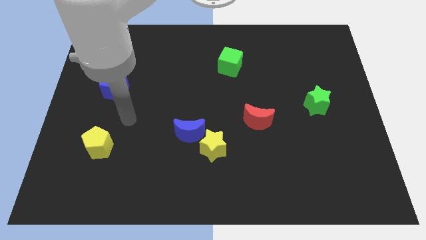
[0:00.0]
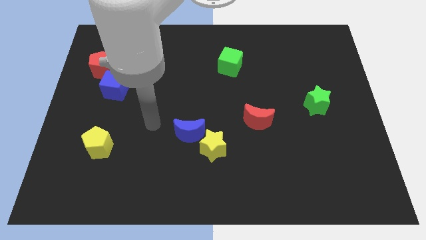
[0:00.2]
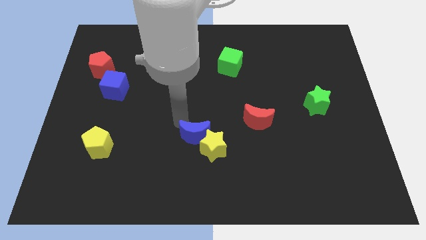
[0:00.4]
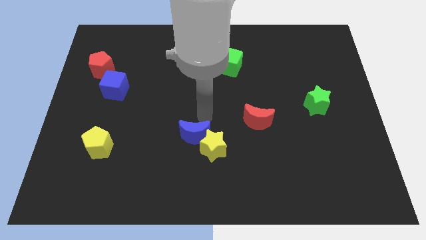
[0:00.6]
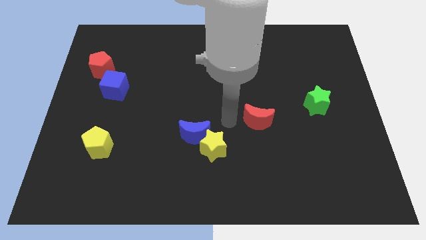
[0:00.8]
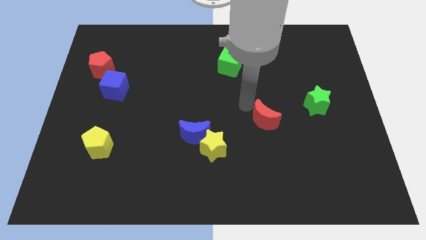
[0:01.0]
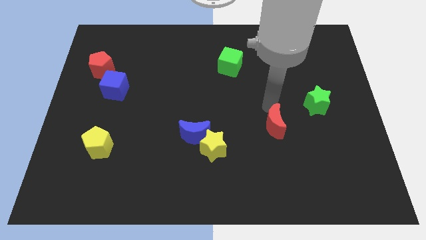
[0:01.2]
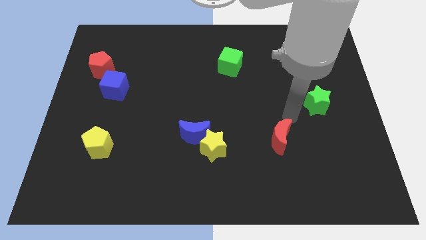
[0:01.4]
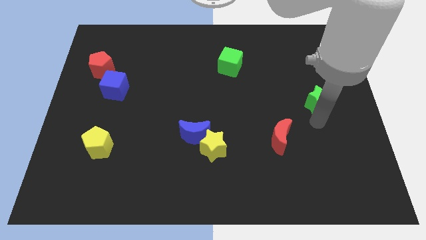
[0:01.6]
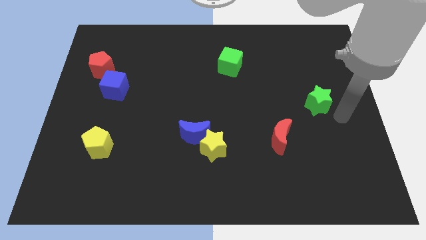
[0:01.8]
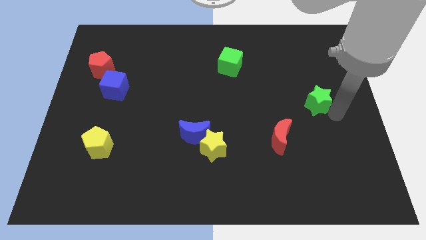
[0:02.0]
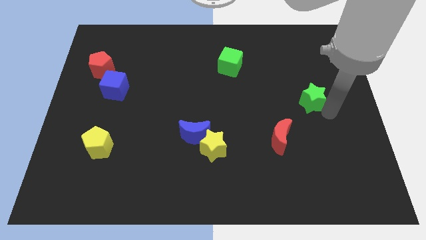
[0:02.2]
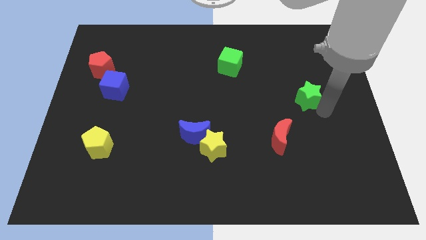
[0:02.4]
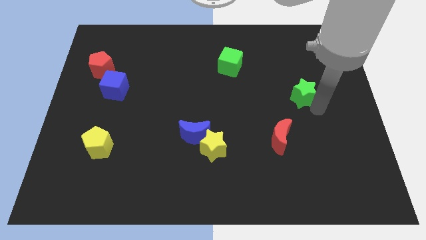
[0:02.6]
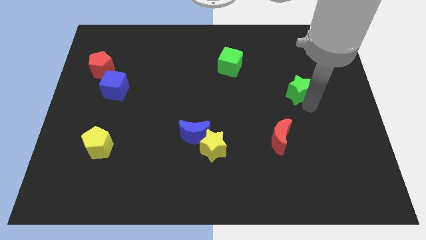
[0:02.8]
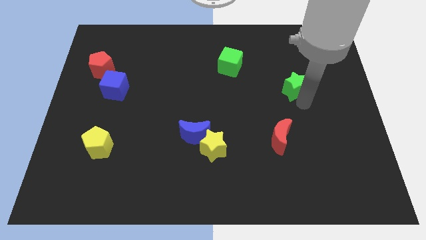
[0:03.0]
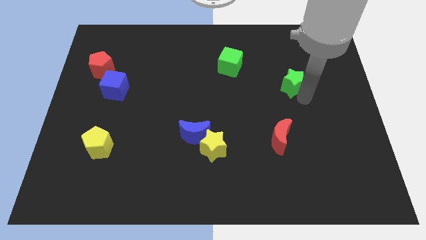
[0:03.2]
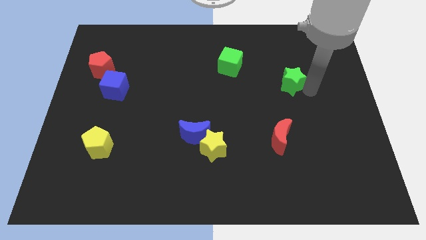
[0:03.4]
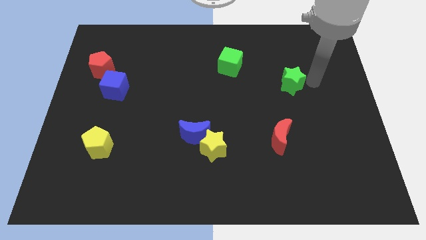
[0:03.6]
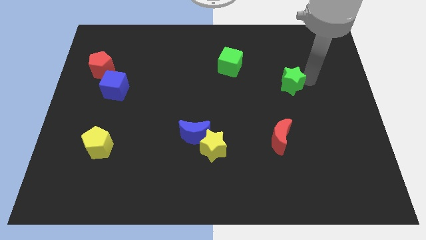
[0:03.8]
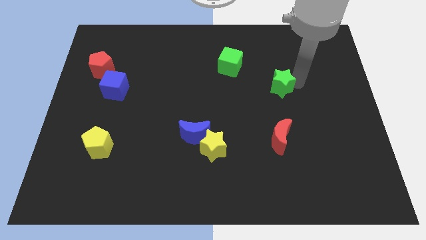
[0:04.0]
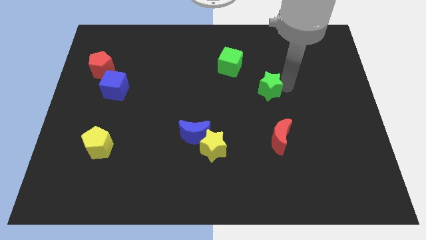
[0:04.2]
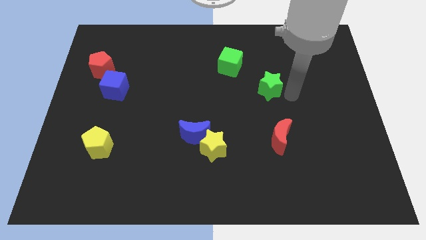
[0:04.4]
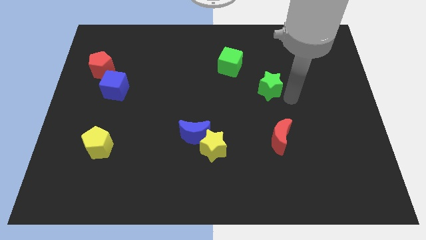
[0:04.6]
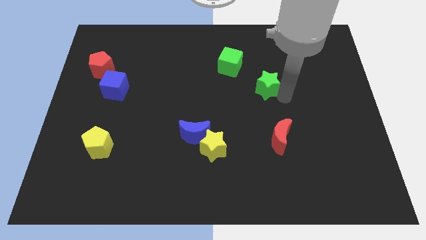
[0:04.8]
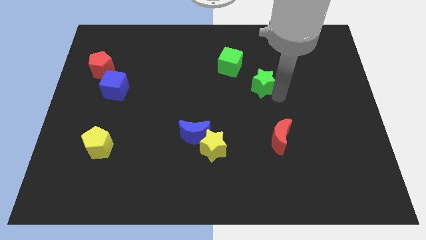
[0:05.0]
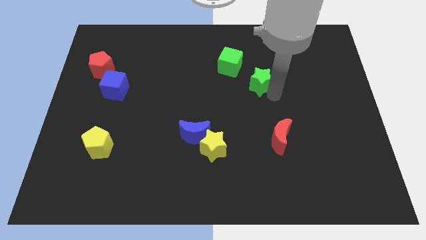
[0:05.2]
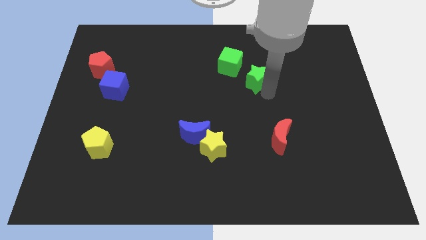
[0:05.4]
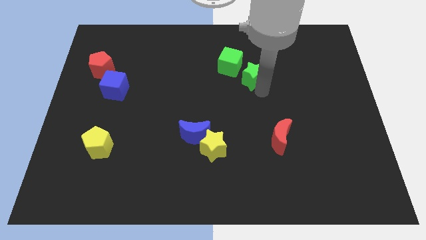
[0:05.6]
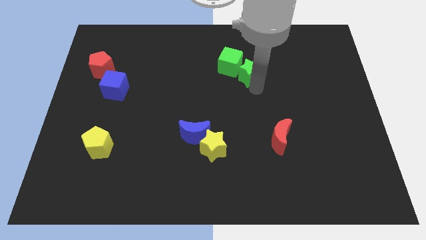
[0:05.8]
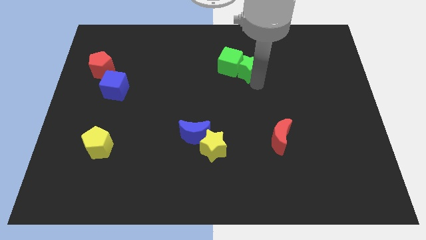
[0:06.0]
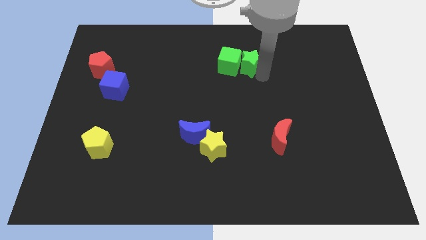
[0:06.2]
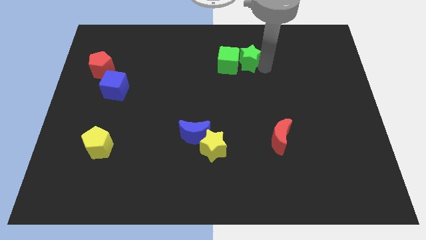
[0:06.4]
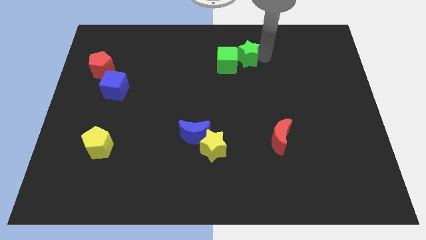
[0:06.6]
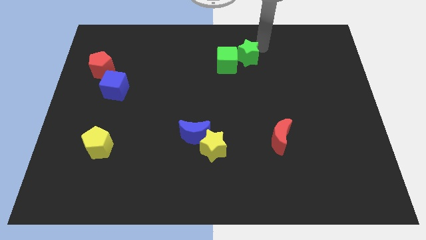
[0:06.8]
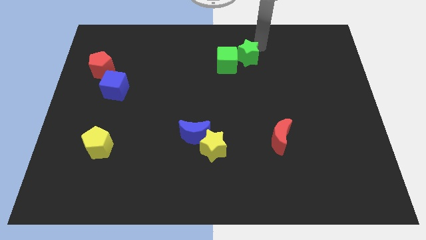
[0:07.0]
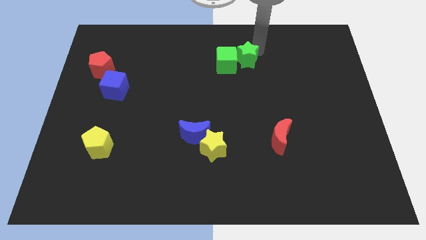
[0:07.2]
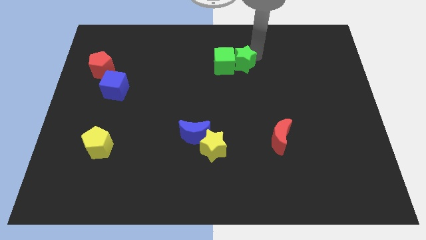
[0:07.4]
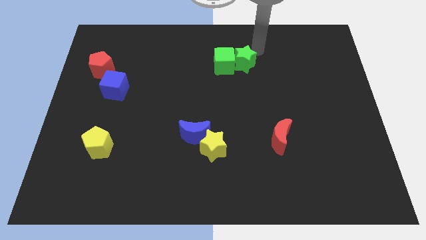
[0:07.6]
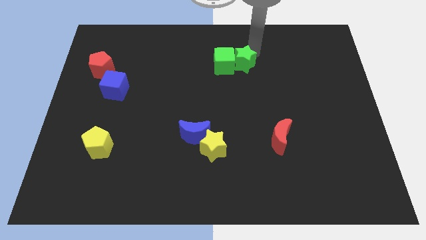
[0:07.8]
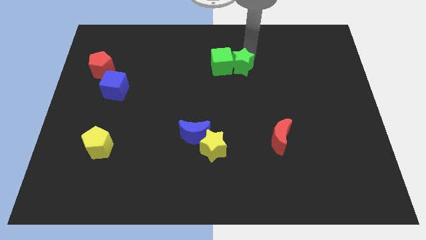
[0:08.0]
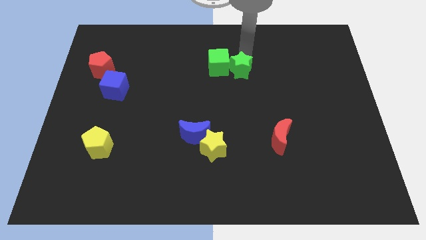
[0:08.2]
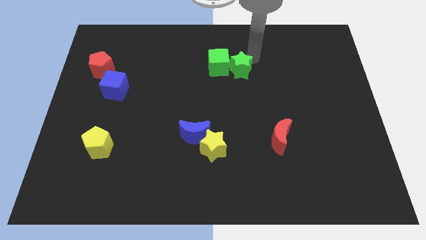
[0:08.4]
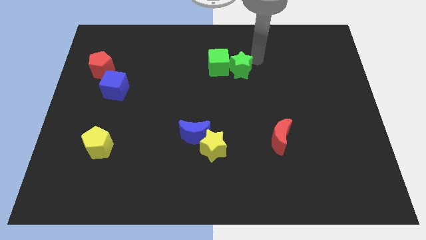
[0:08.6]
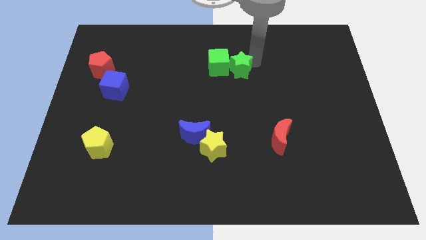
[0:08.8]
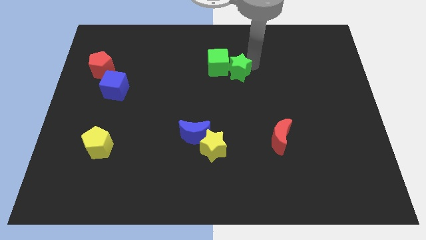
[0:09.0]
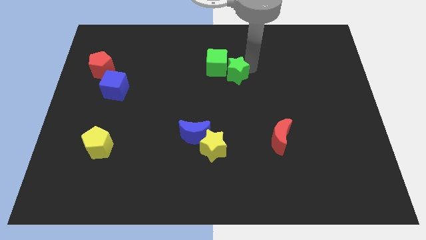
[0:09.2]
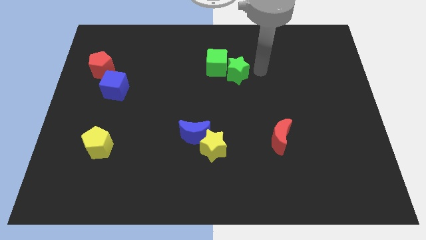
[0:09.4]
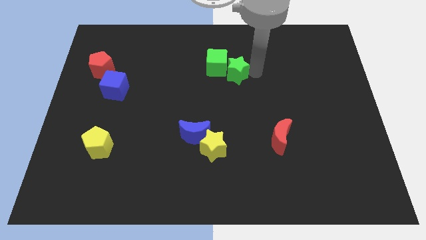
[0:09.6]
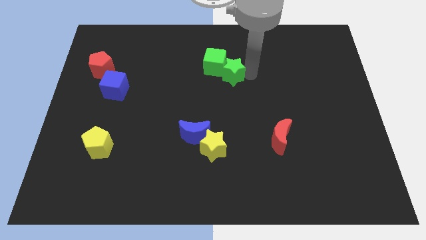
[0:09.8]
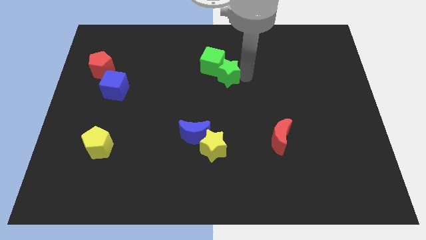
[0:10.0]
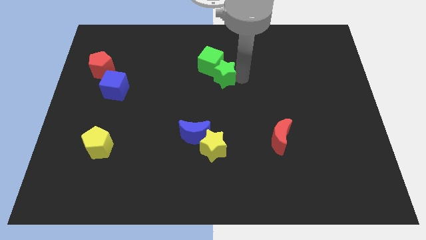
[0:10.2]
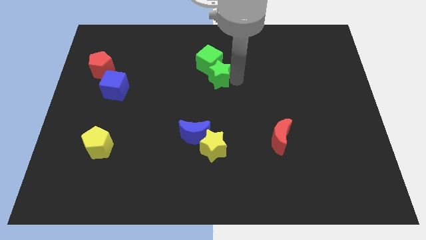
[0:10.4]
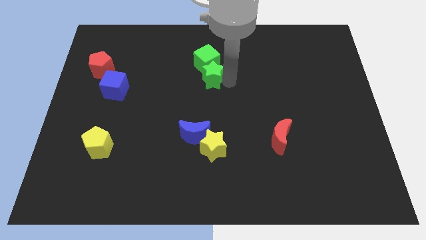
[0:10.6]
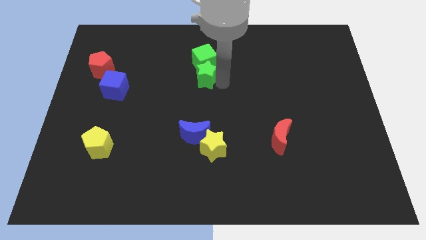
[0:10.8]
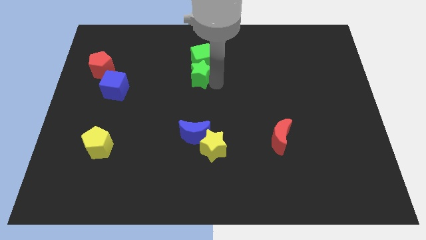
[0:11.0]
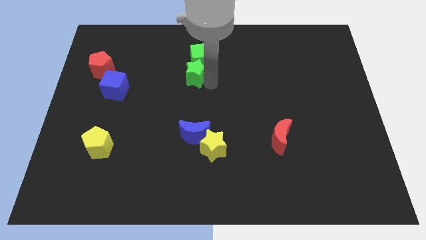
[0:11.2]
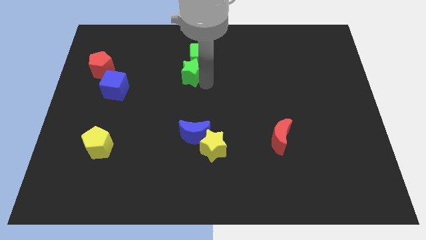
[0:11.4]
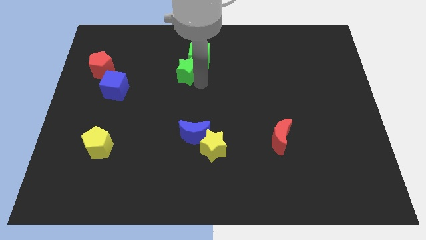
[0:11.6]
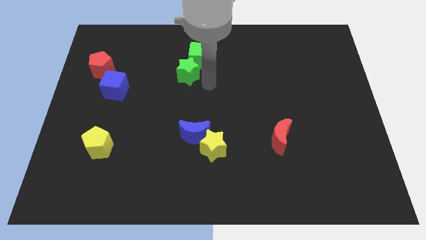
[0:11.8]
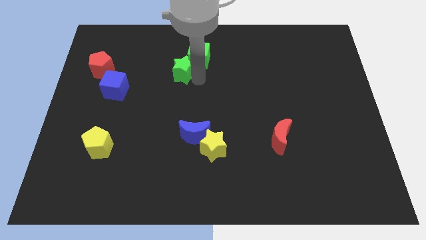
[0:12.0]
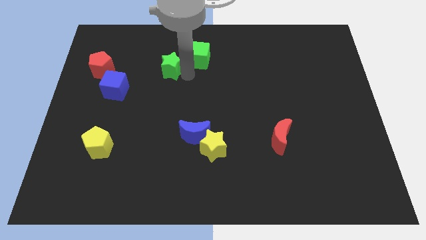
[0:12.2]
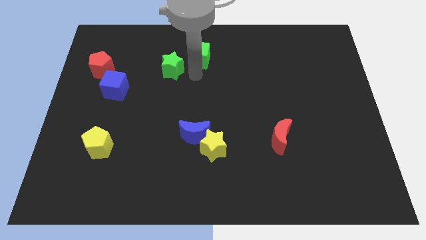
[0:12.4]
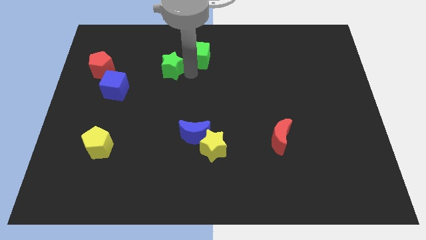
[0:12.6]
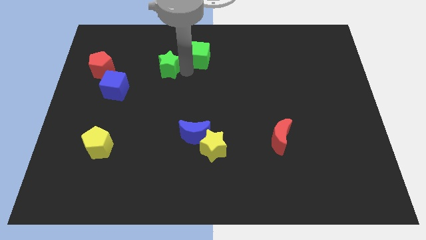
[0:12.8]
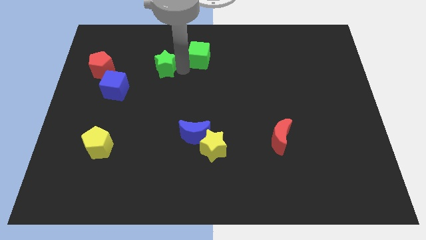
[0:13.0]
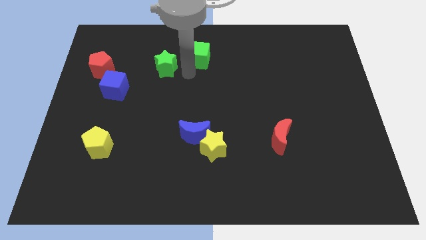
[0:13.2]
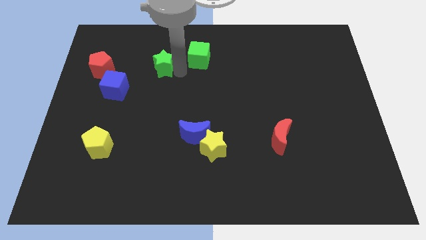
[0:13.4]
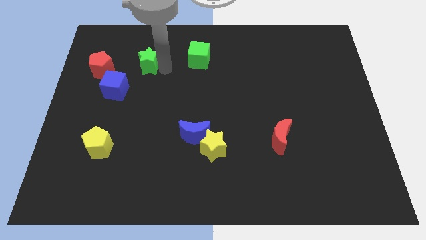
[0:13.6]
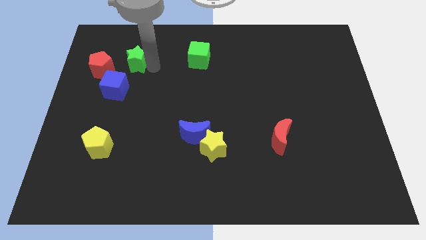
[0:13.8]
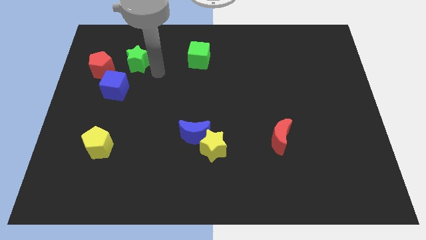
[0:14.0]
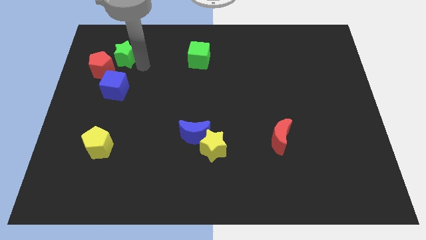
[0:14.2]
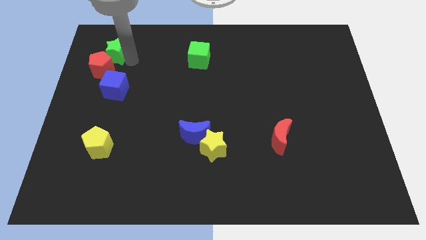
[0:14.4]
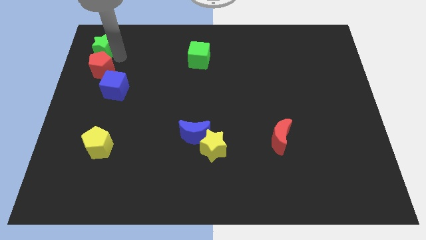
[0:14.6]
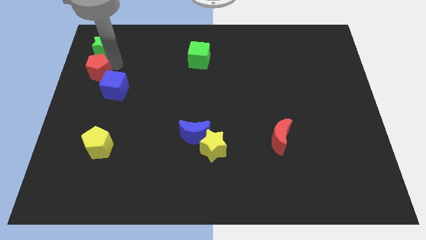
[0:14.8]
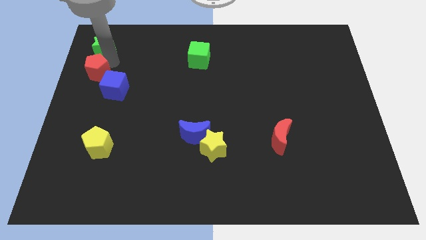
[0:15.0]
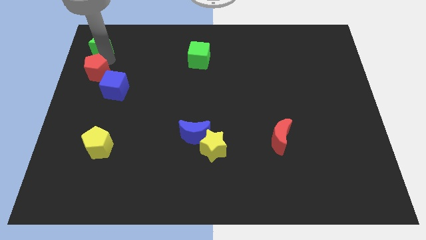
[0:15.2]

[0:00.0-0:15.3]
push the green star to the upper left corner
